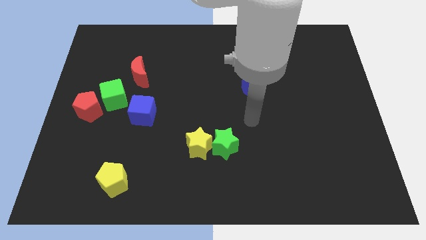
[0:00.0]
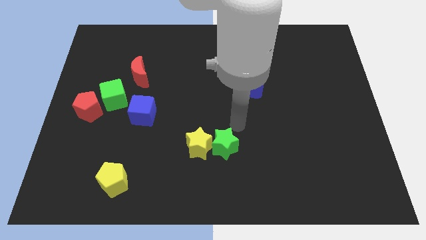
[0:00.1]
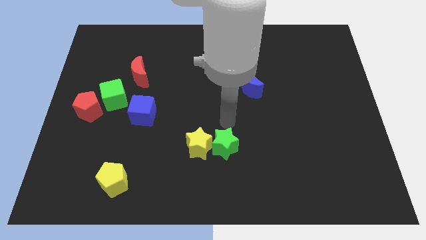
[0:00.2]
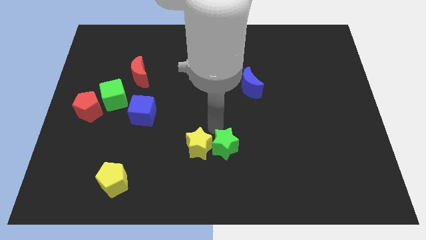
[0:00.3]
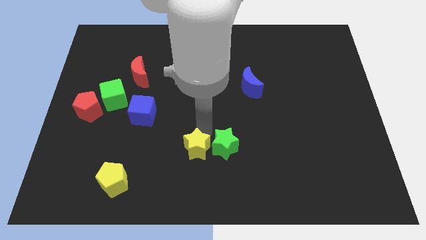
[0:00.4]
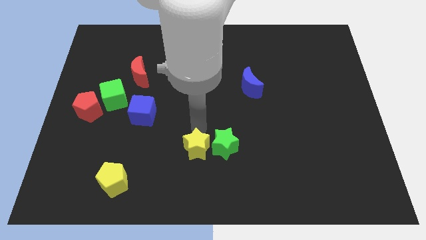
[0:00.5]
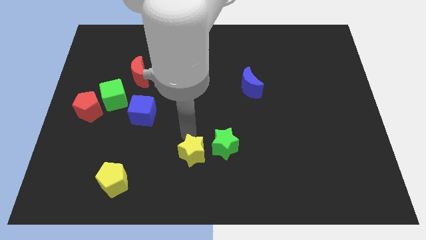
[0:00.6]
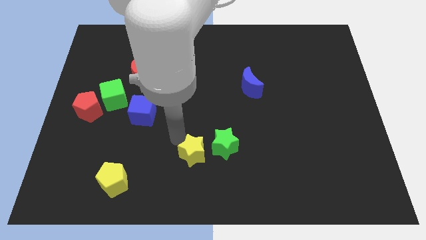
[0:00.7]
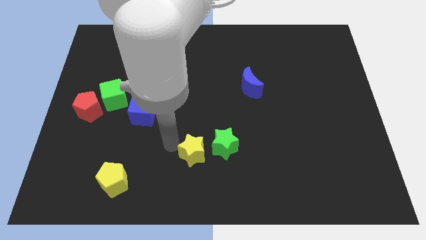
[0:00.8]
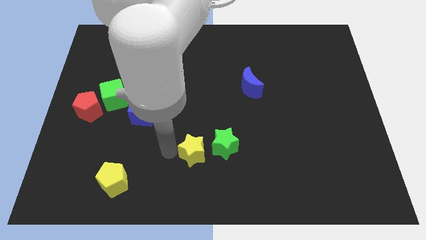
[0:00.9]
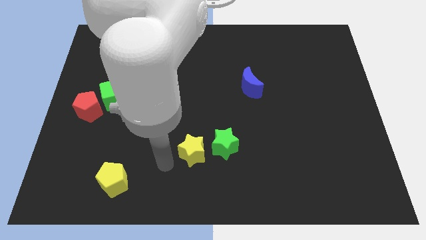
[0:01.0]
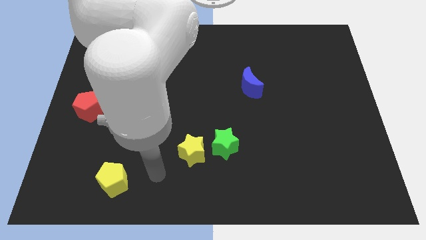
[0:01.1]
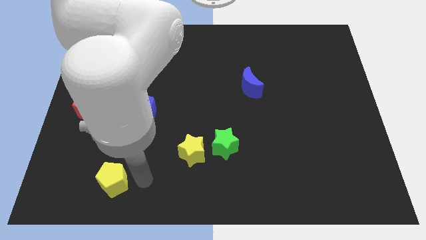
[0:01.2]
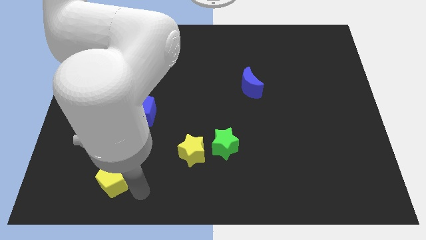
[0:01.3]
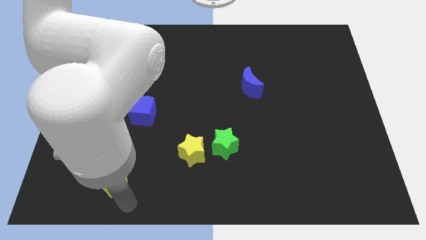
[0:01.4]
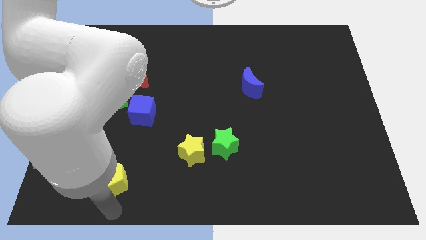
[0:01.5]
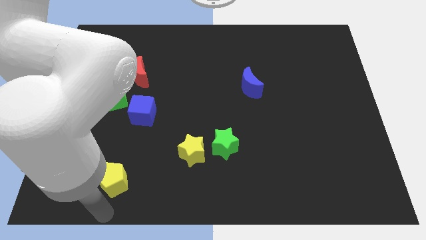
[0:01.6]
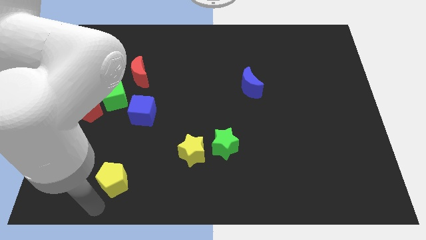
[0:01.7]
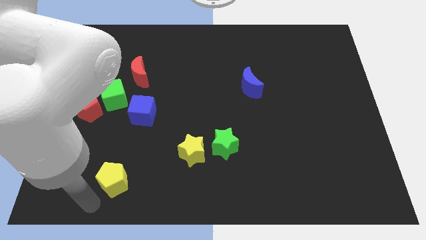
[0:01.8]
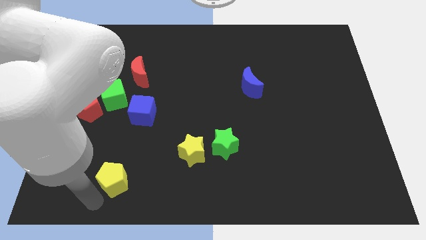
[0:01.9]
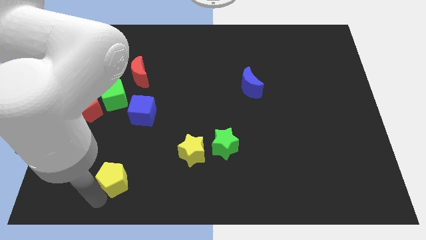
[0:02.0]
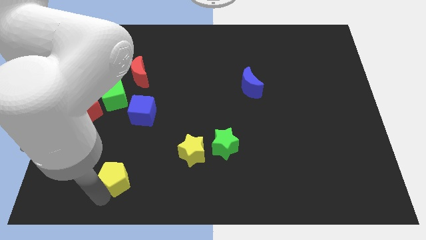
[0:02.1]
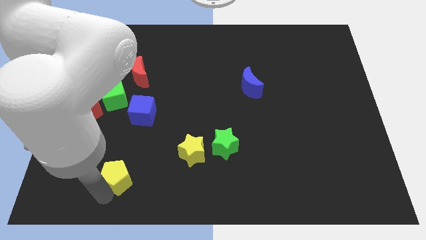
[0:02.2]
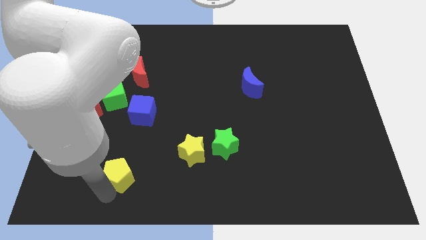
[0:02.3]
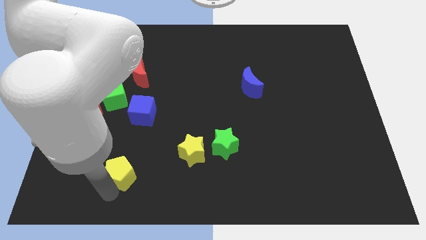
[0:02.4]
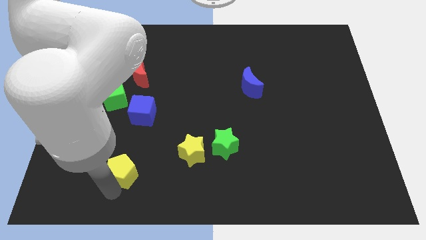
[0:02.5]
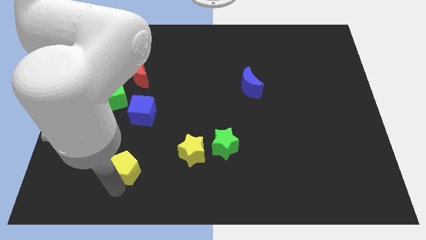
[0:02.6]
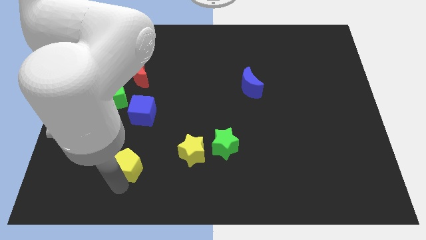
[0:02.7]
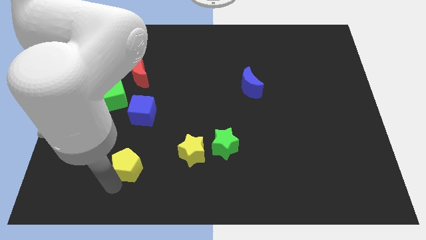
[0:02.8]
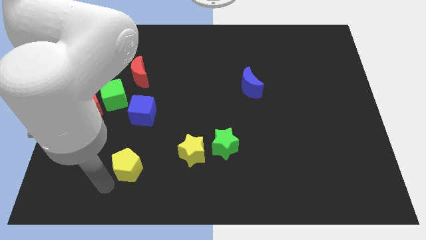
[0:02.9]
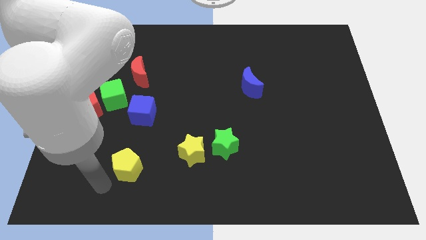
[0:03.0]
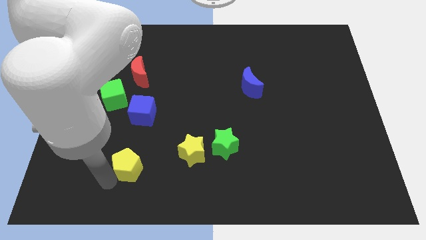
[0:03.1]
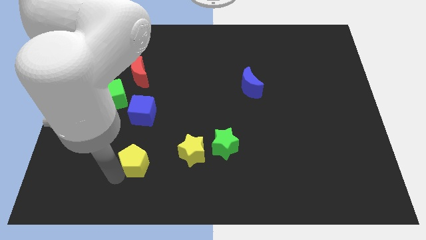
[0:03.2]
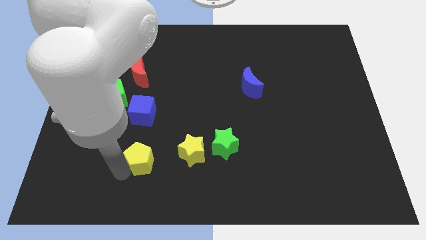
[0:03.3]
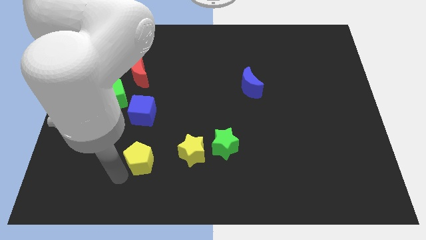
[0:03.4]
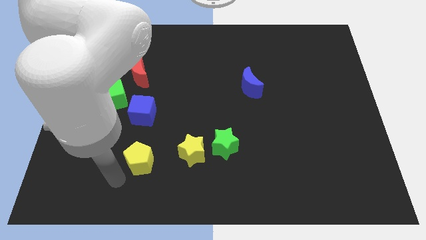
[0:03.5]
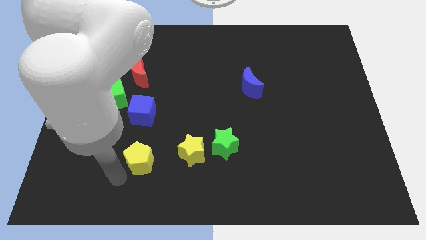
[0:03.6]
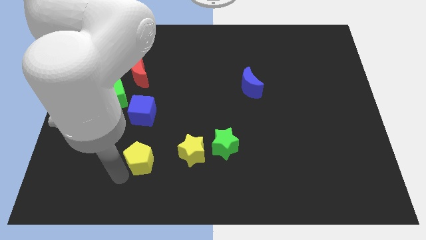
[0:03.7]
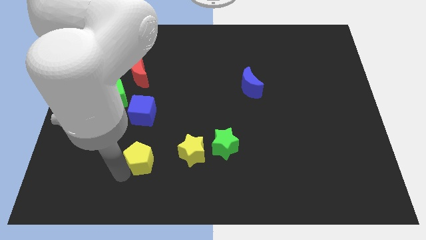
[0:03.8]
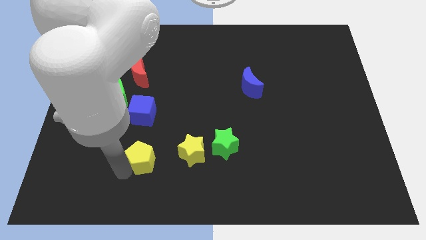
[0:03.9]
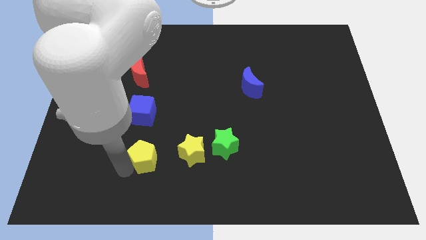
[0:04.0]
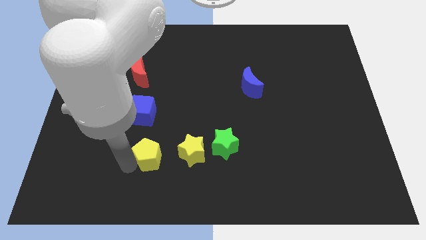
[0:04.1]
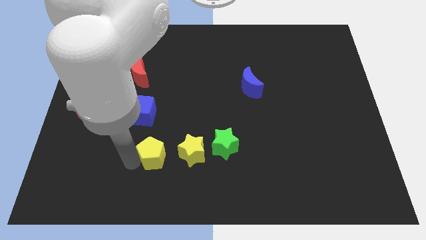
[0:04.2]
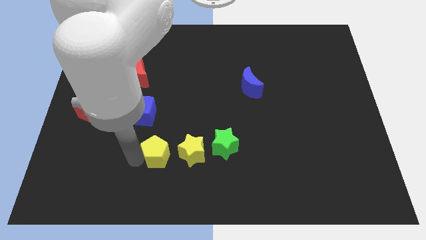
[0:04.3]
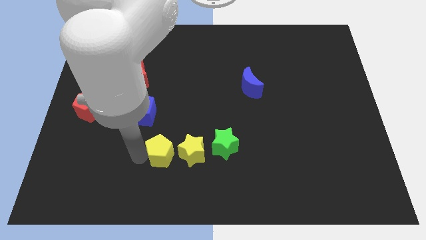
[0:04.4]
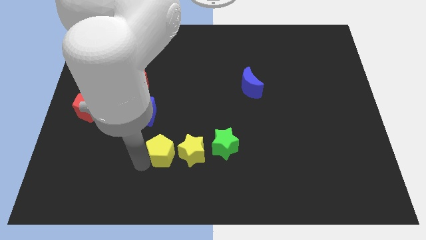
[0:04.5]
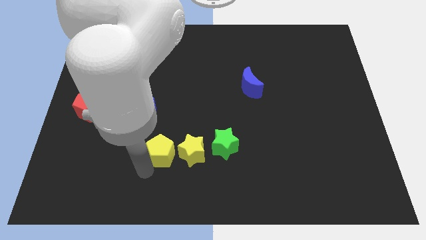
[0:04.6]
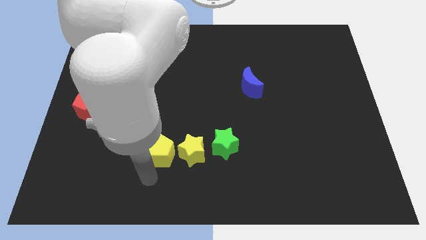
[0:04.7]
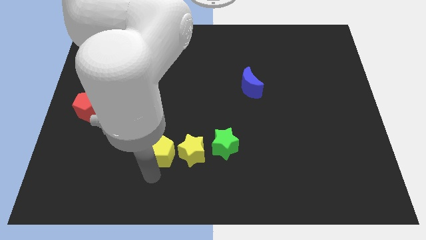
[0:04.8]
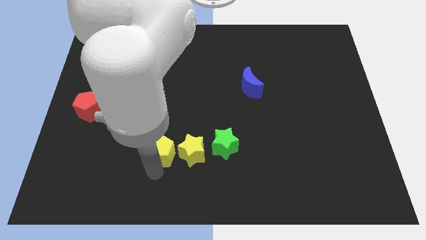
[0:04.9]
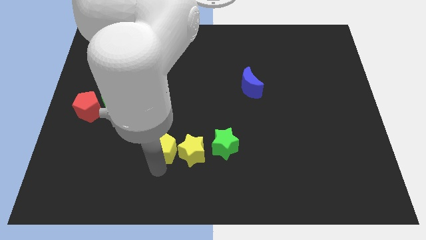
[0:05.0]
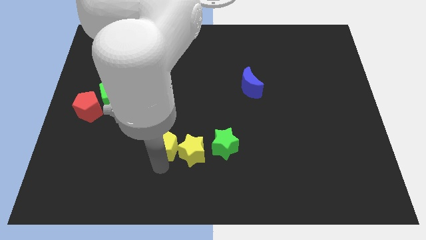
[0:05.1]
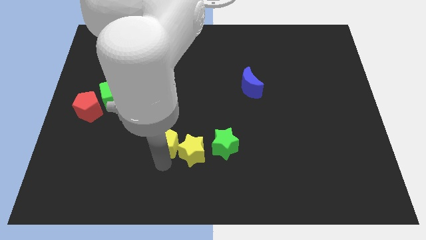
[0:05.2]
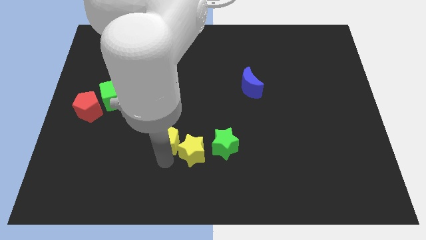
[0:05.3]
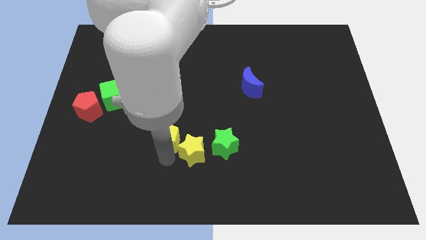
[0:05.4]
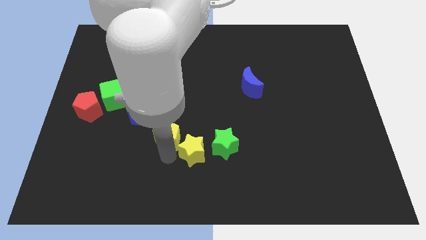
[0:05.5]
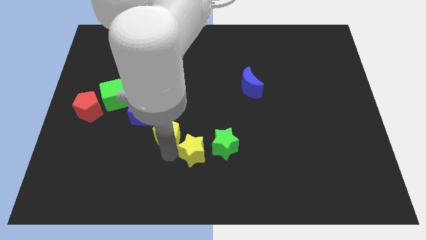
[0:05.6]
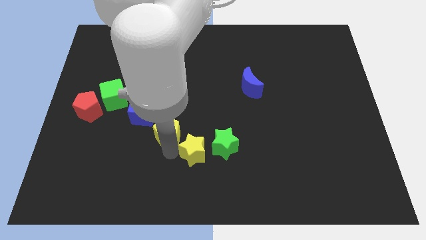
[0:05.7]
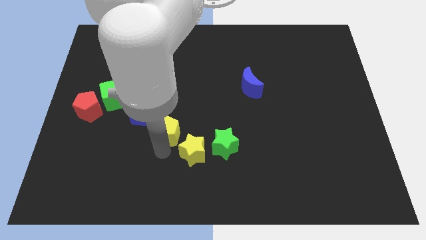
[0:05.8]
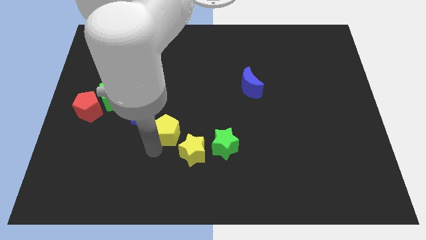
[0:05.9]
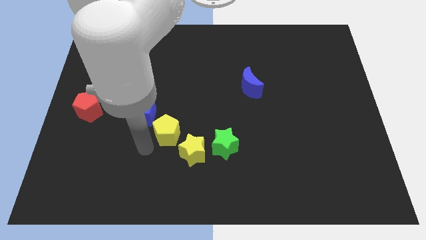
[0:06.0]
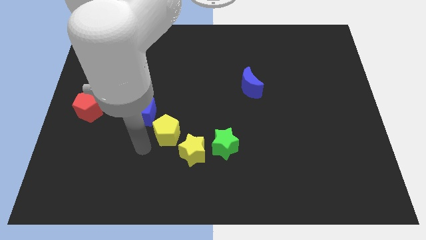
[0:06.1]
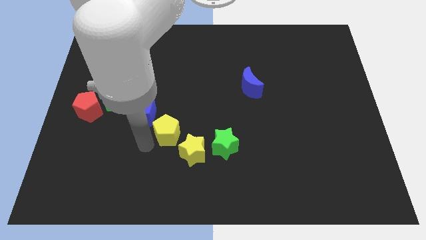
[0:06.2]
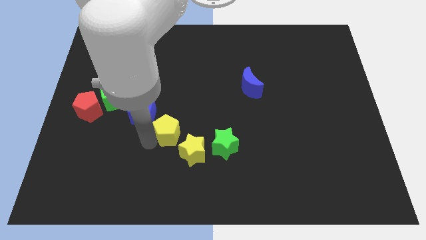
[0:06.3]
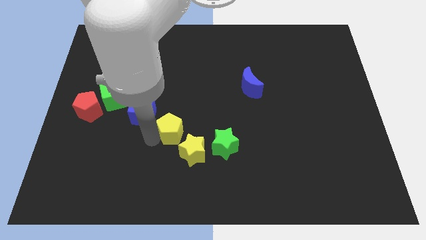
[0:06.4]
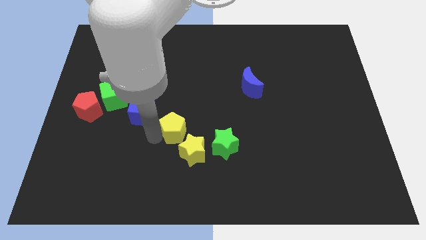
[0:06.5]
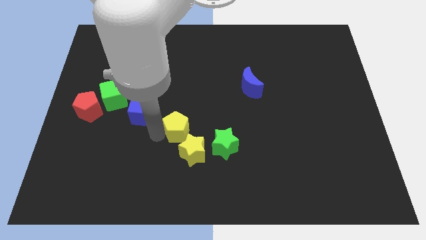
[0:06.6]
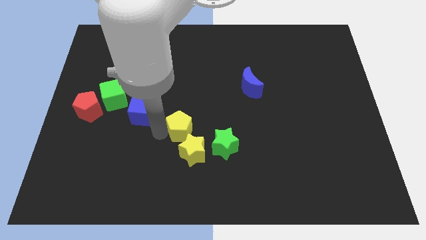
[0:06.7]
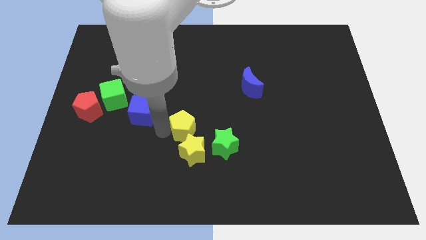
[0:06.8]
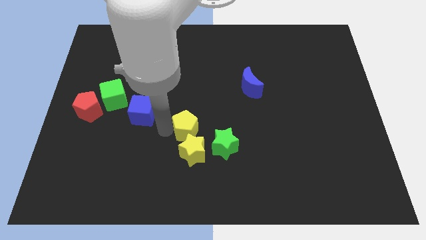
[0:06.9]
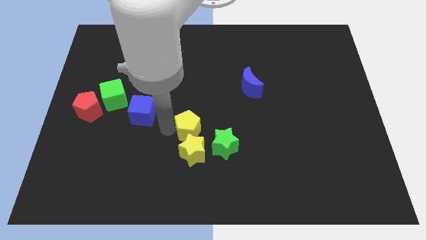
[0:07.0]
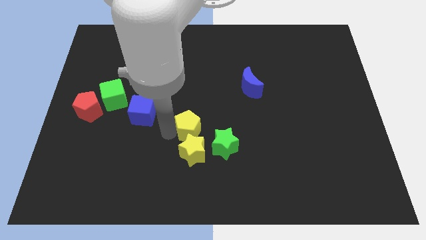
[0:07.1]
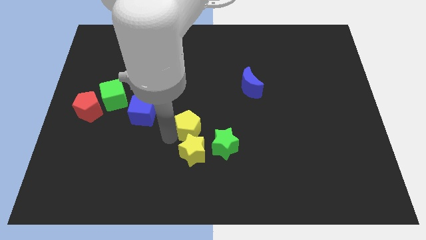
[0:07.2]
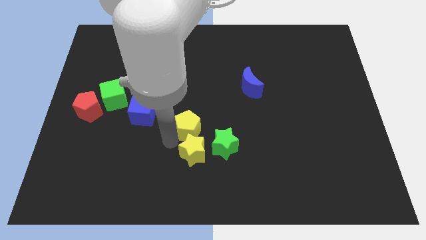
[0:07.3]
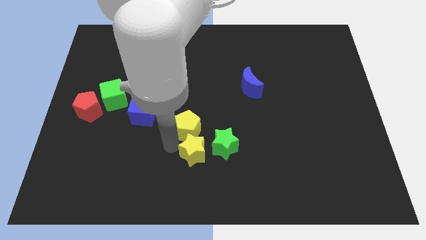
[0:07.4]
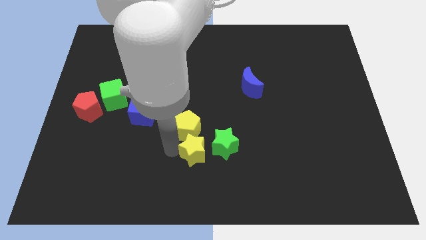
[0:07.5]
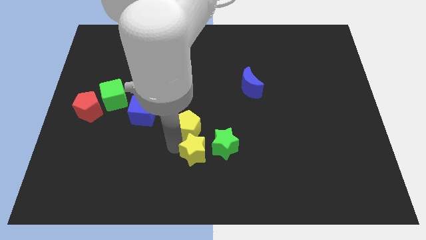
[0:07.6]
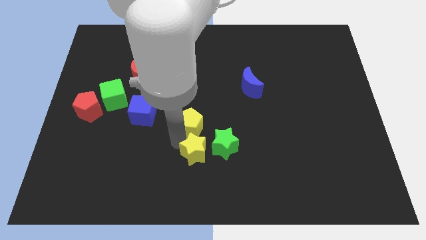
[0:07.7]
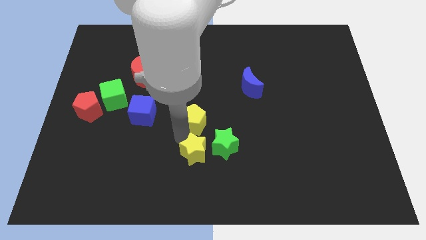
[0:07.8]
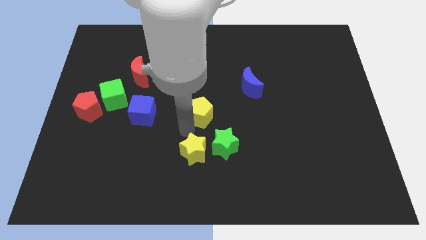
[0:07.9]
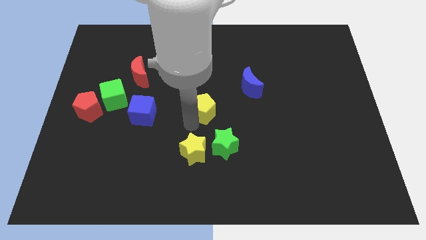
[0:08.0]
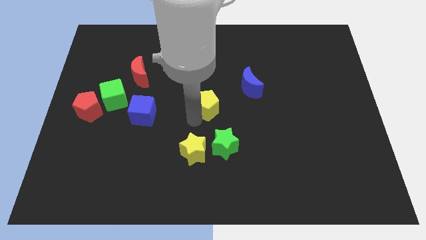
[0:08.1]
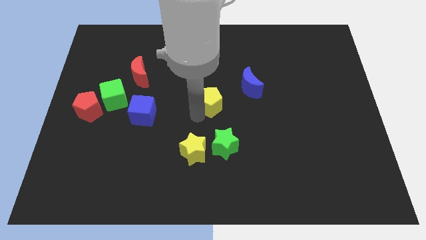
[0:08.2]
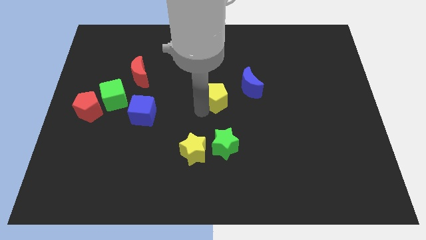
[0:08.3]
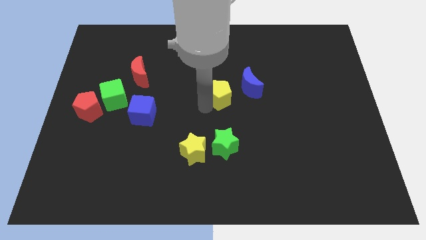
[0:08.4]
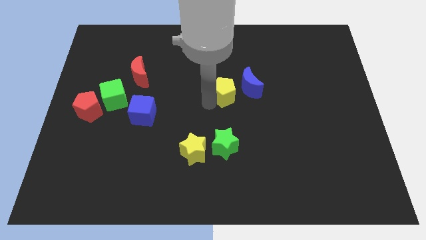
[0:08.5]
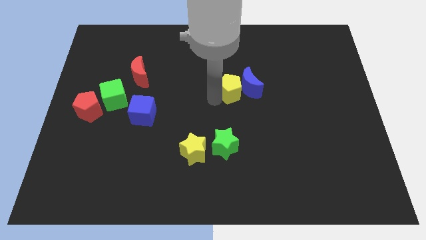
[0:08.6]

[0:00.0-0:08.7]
put the yellow pentagon to the blue moon
